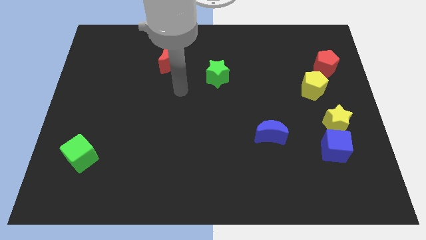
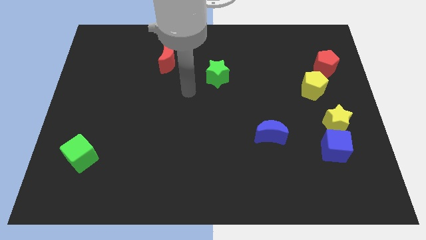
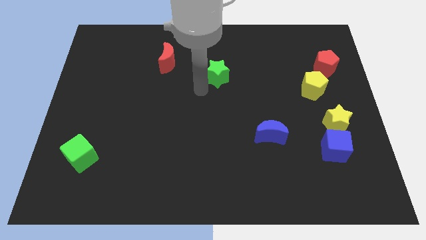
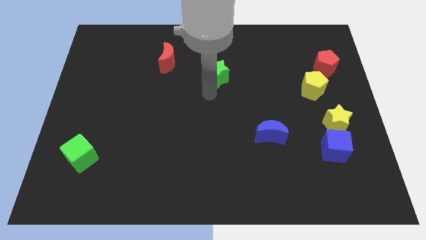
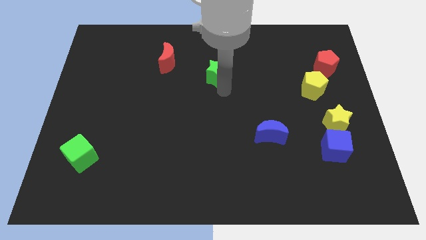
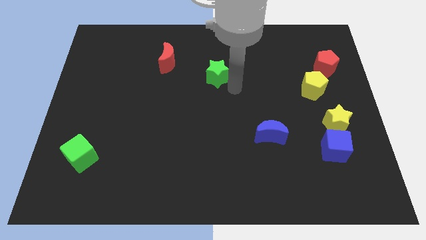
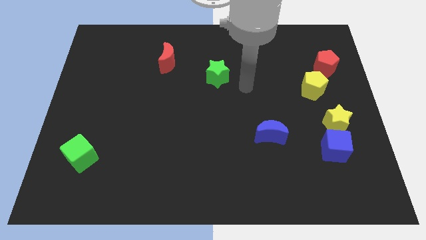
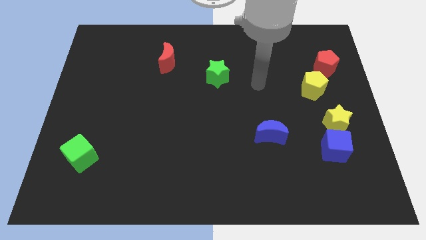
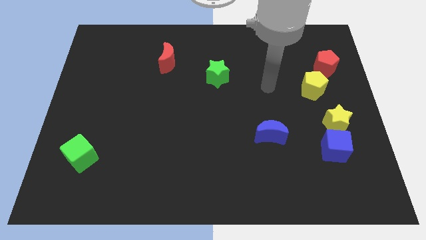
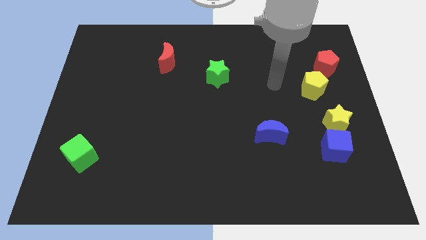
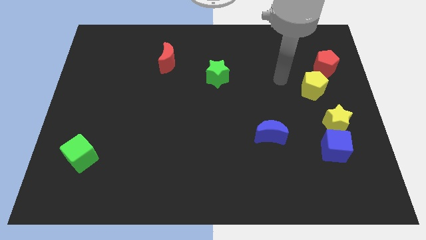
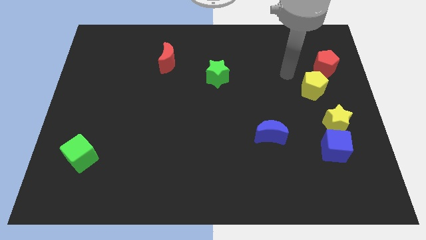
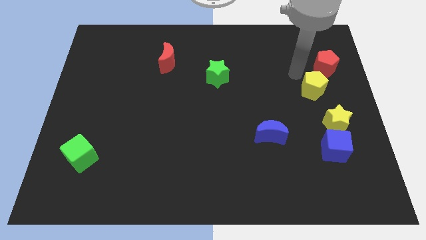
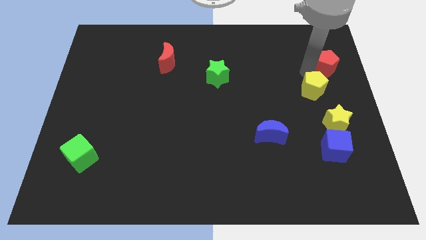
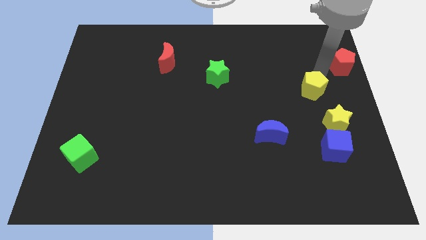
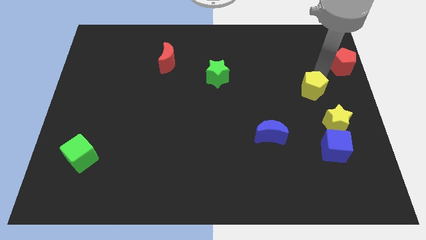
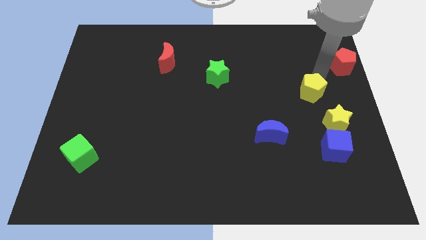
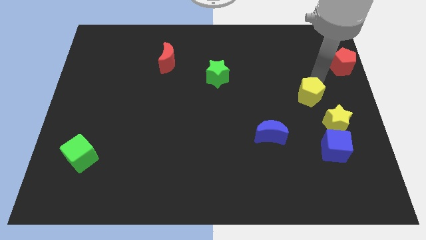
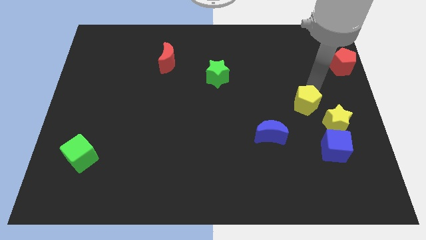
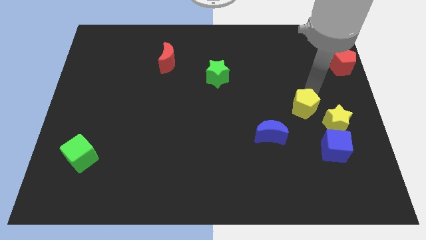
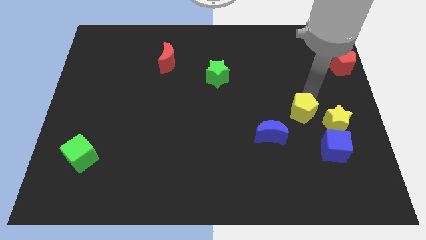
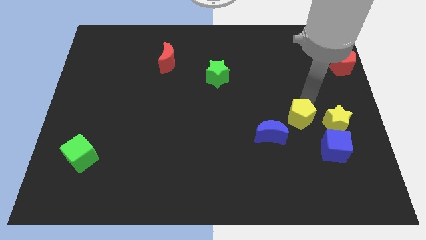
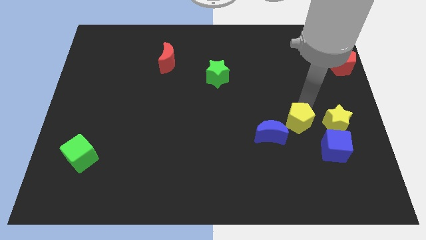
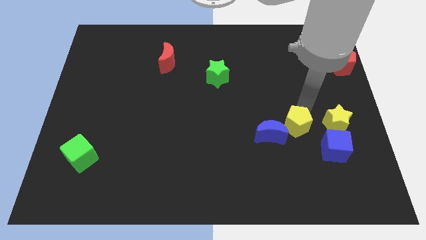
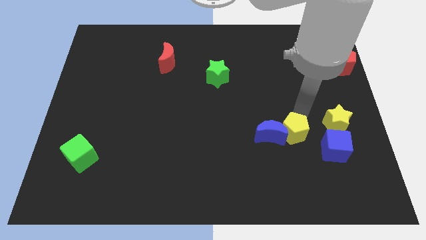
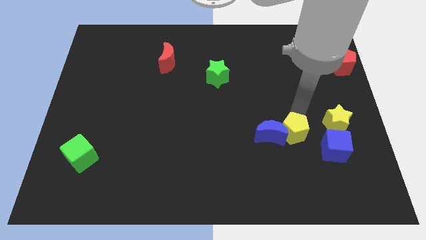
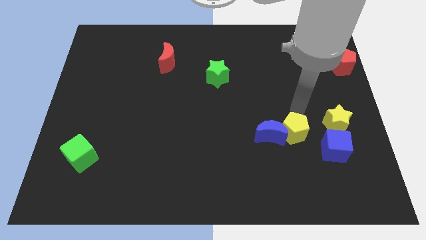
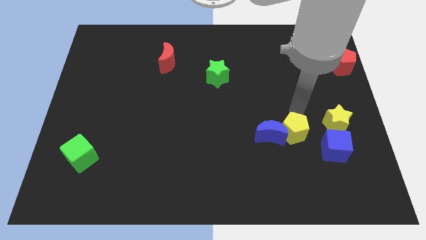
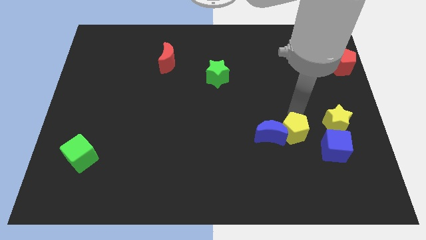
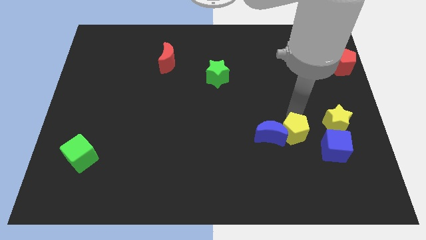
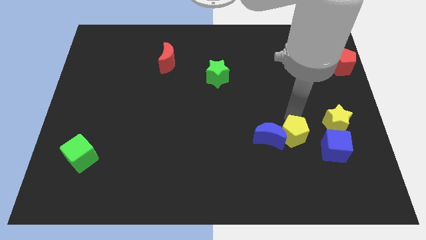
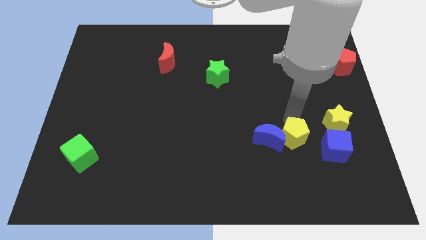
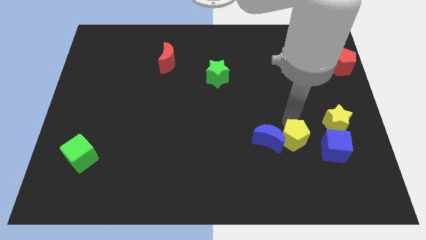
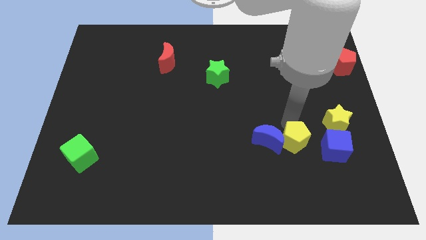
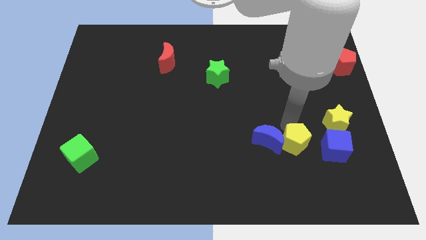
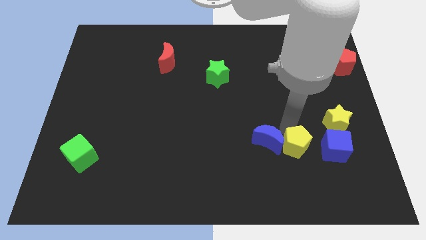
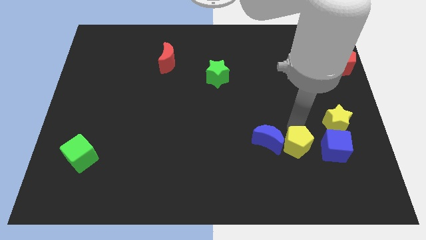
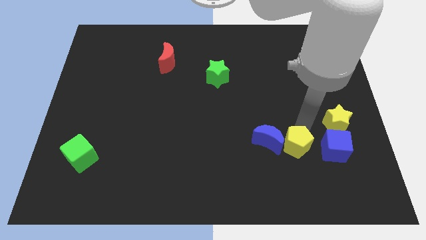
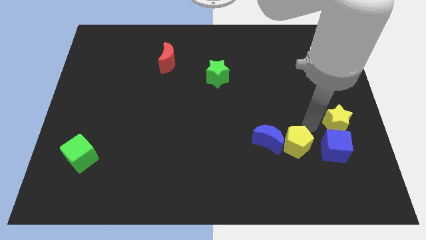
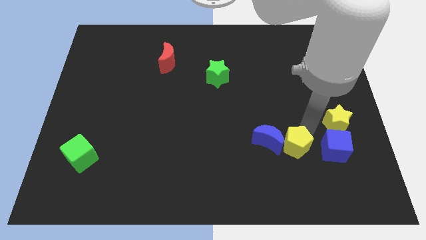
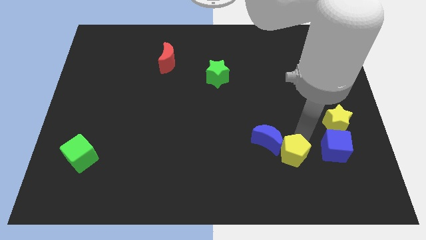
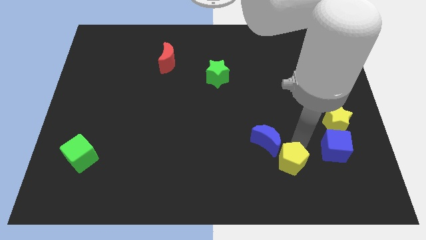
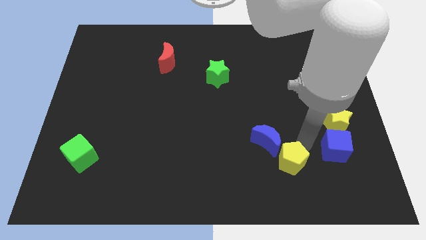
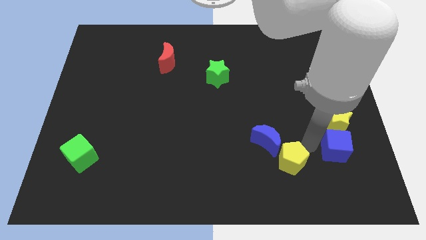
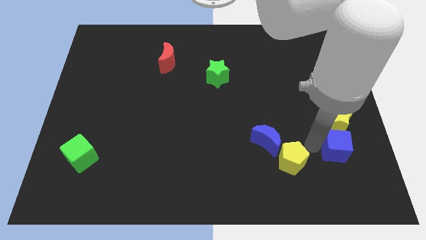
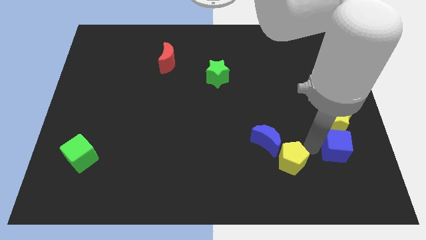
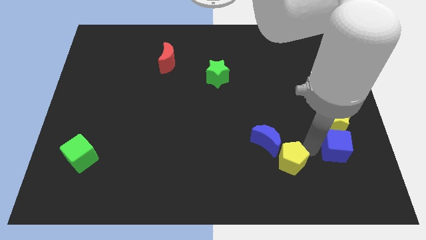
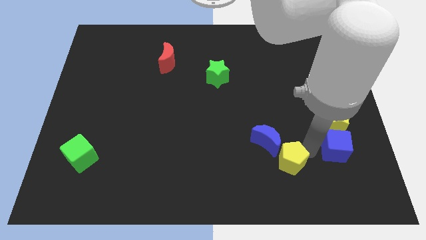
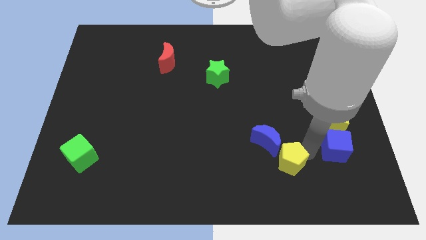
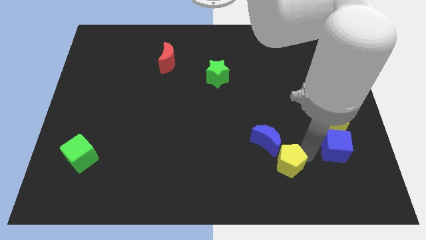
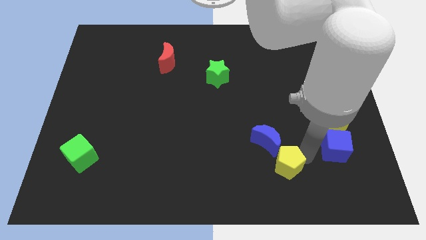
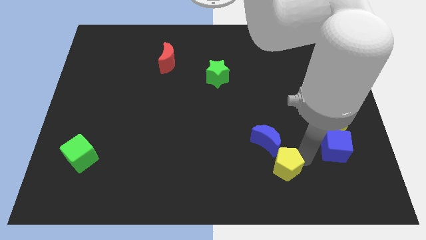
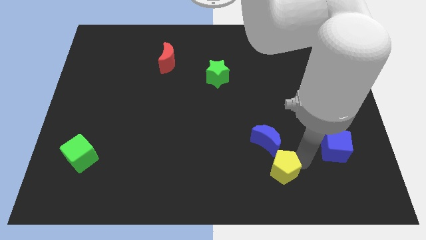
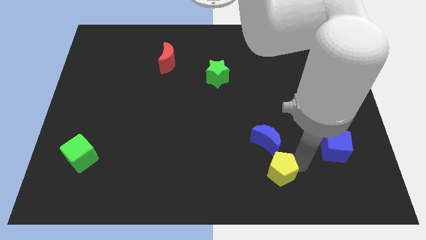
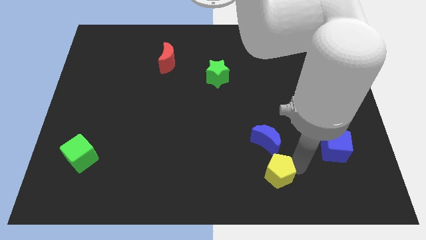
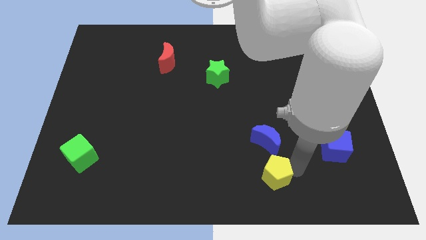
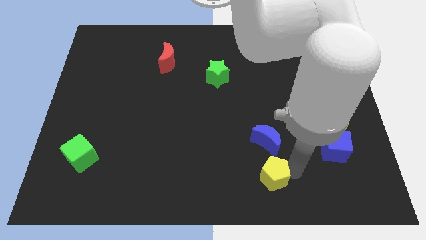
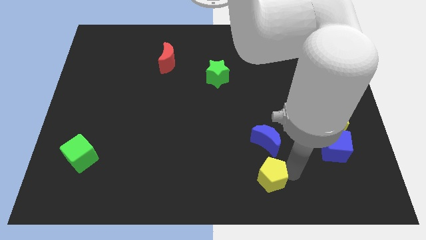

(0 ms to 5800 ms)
put the yellow pentagon to the bottom

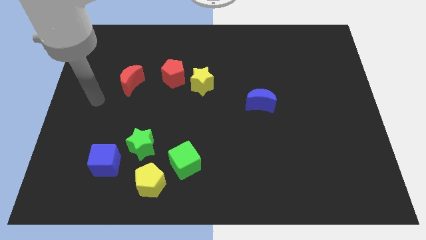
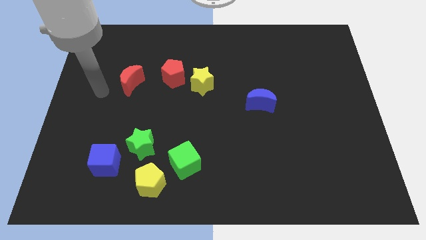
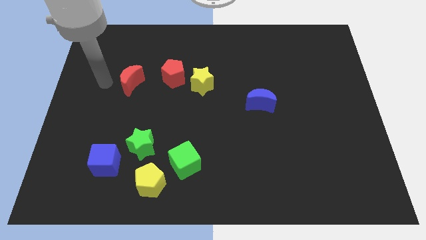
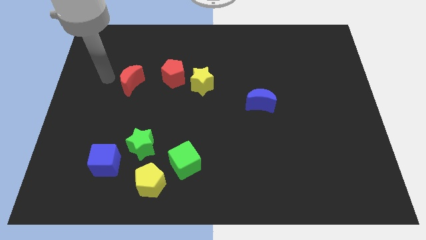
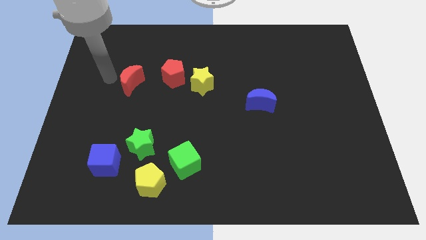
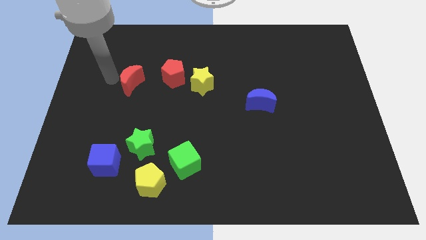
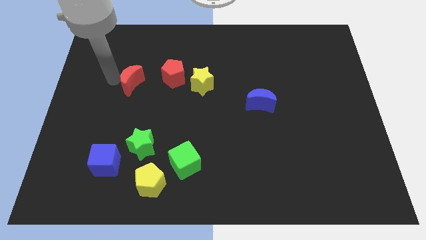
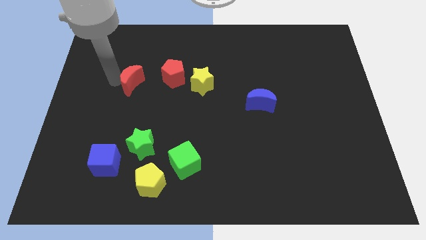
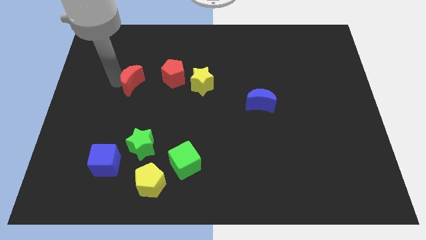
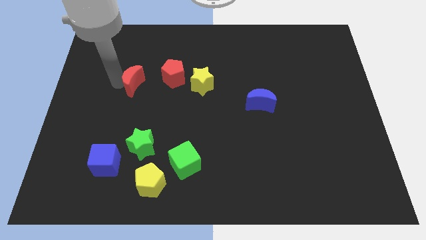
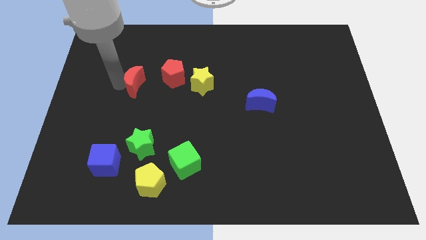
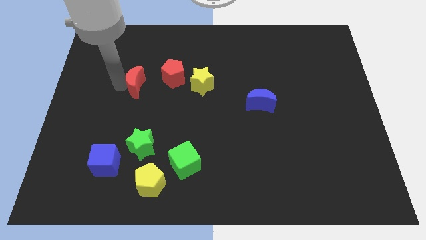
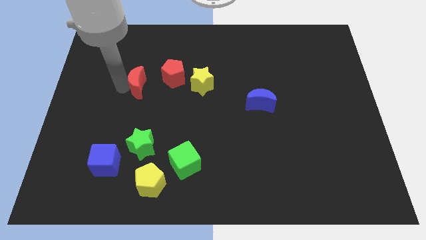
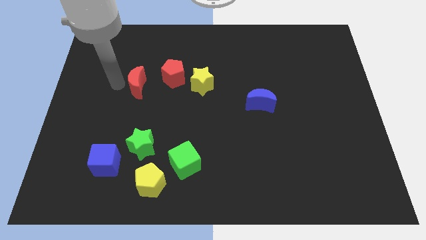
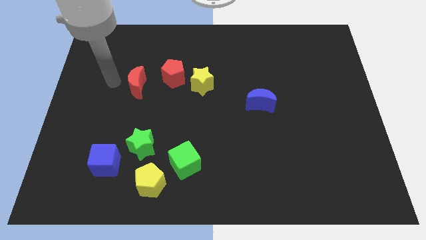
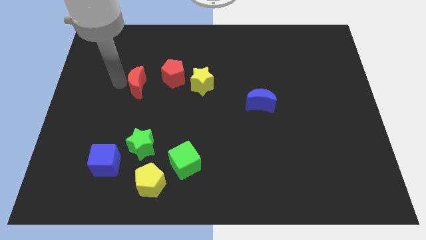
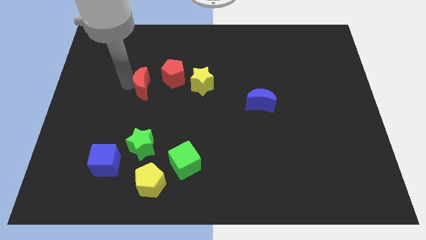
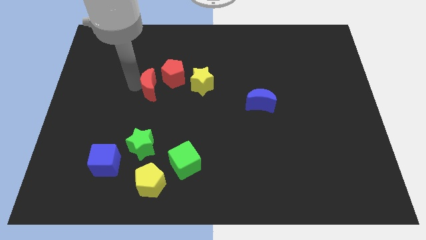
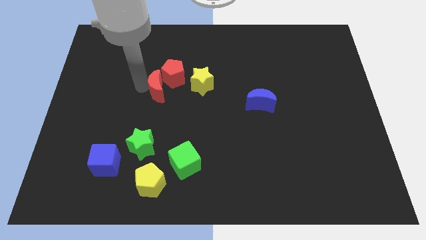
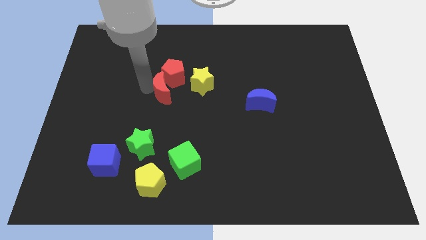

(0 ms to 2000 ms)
push the red moon to the center of the board

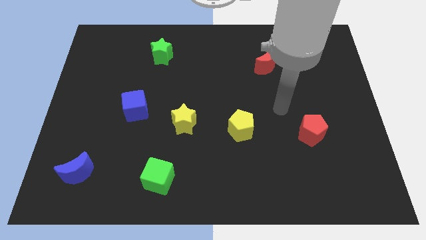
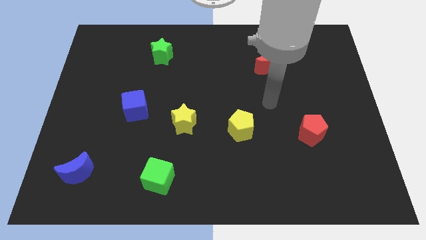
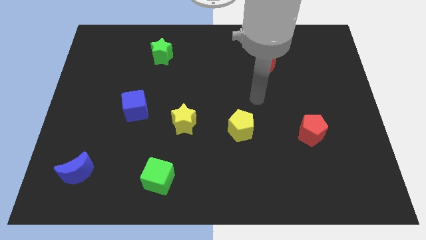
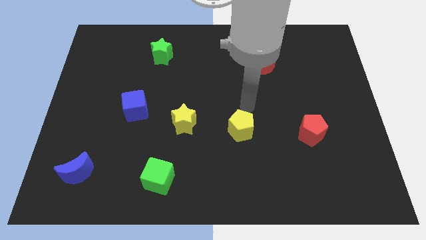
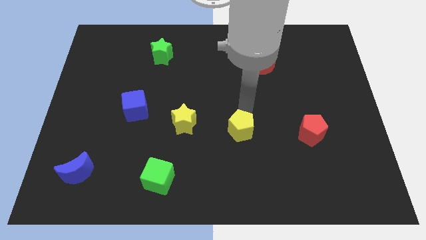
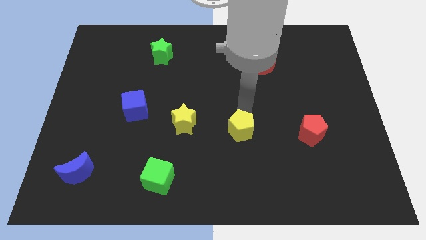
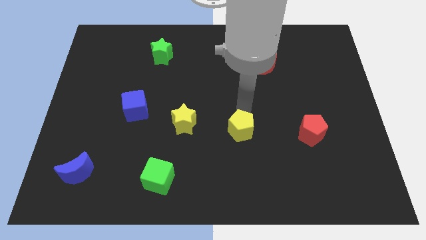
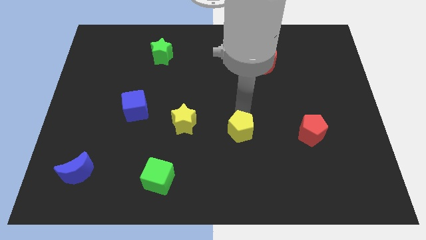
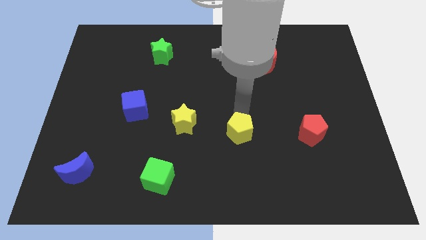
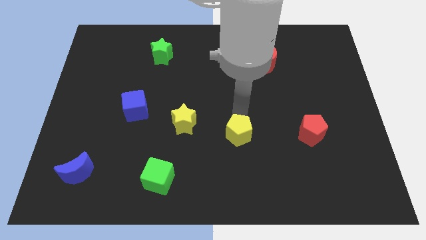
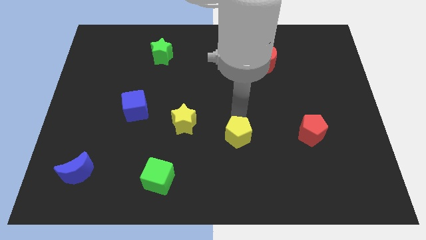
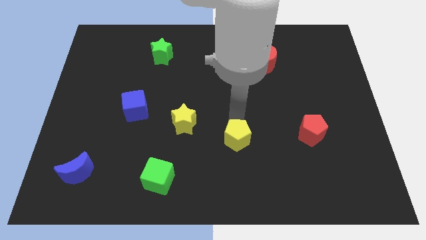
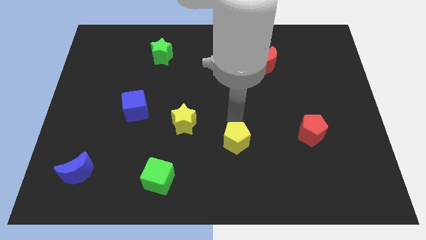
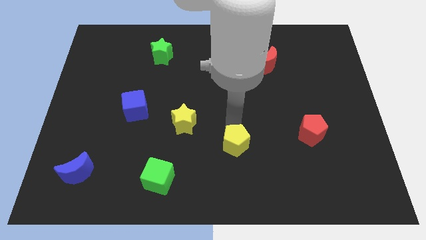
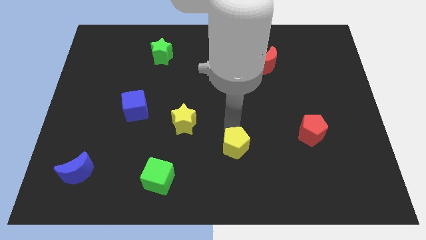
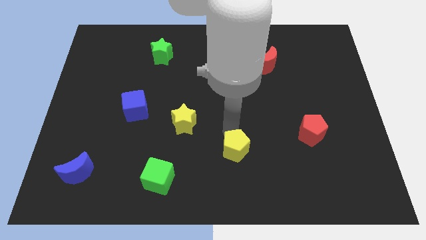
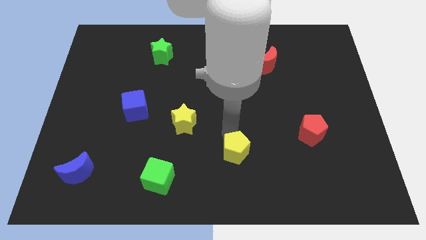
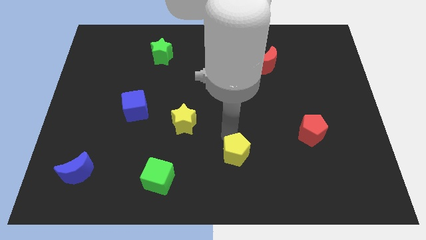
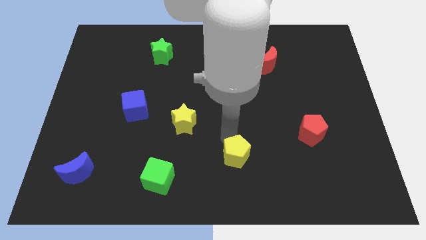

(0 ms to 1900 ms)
move the yellow pentagon to the bottom side
